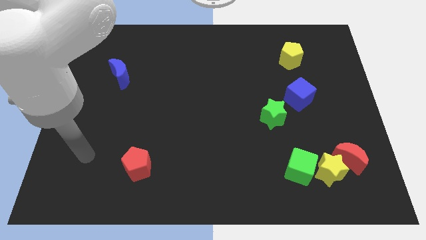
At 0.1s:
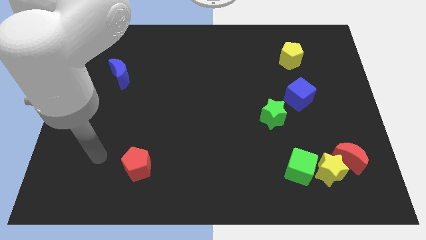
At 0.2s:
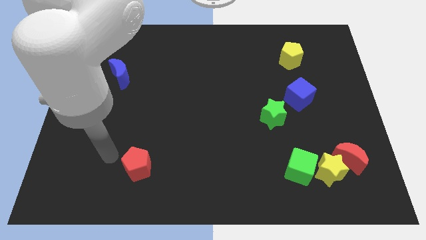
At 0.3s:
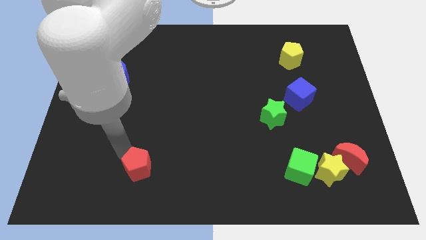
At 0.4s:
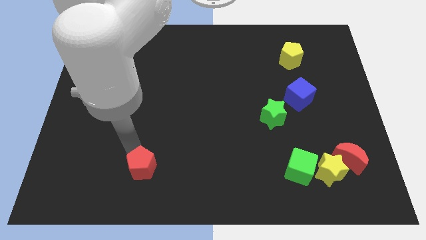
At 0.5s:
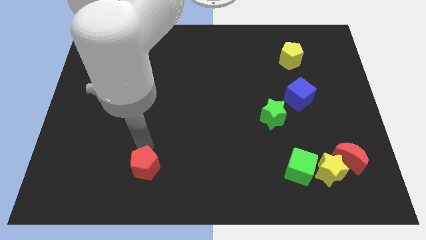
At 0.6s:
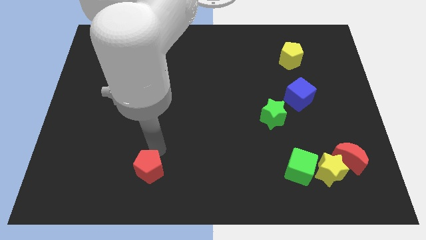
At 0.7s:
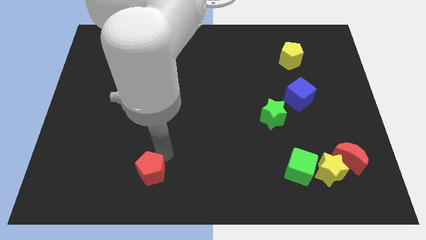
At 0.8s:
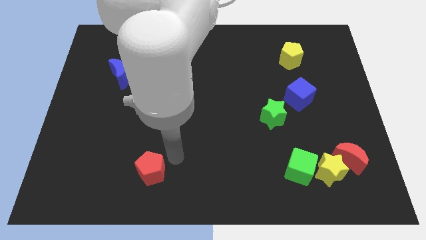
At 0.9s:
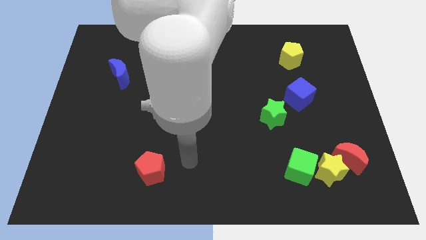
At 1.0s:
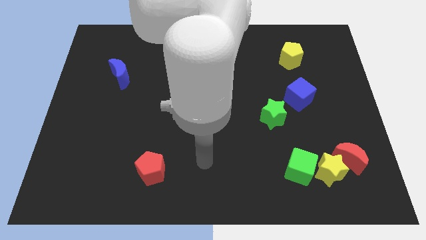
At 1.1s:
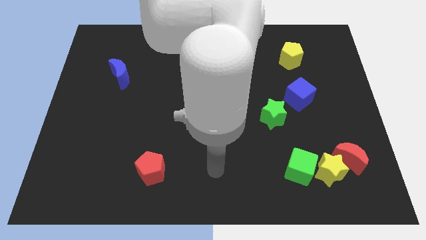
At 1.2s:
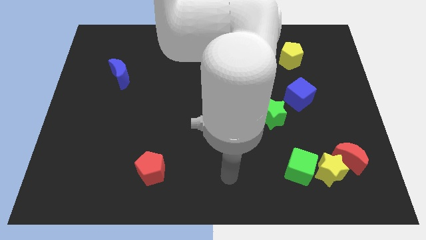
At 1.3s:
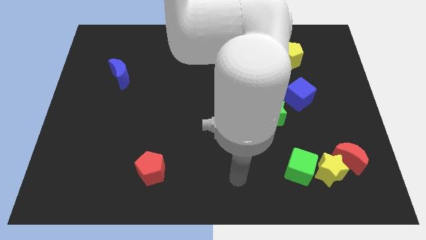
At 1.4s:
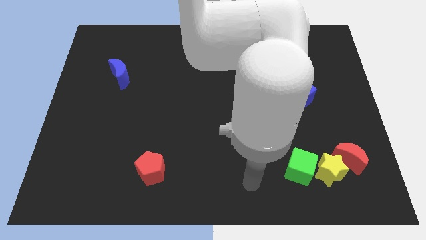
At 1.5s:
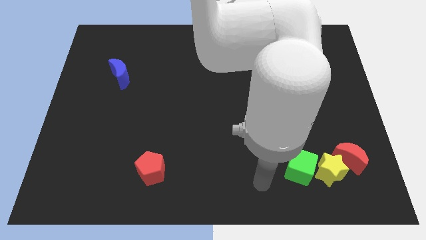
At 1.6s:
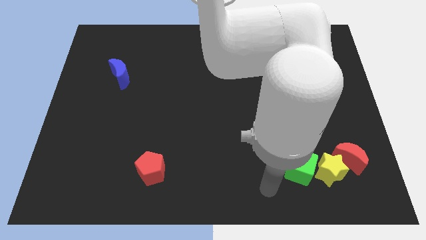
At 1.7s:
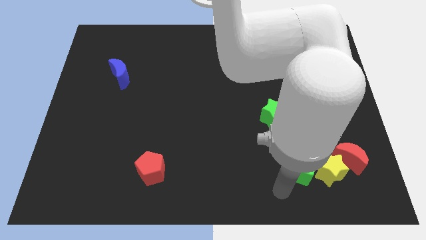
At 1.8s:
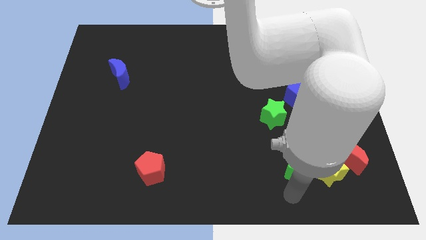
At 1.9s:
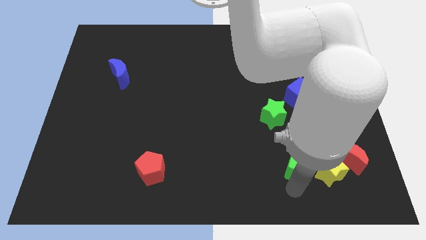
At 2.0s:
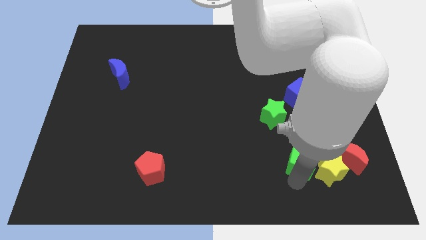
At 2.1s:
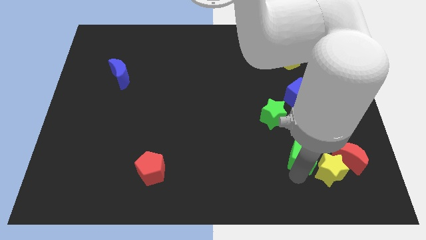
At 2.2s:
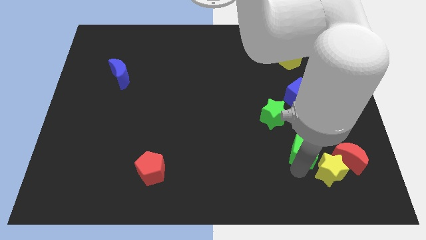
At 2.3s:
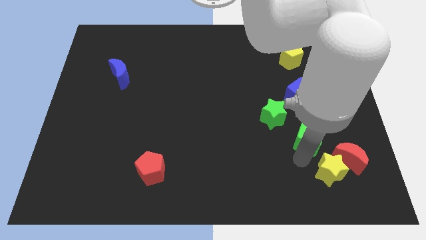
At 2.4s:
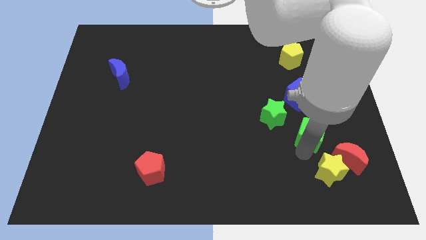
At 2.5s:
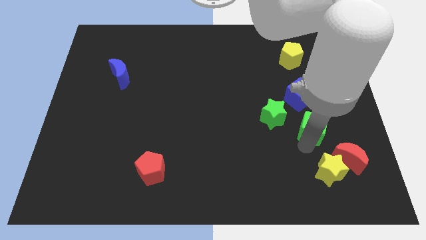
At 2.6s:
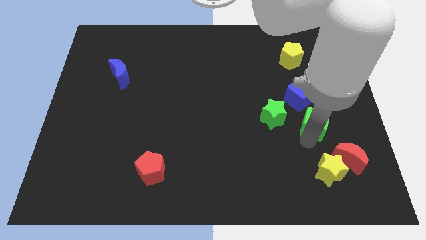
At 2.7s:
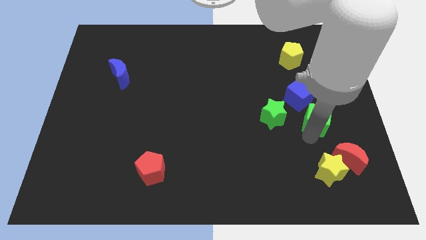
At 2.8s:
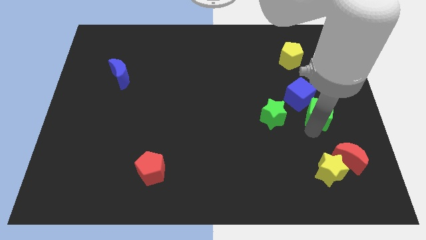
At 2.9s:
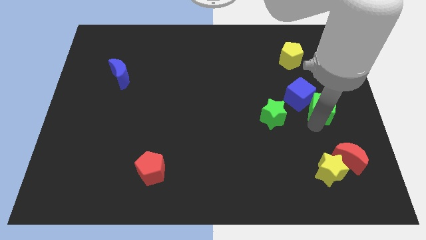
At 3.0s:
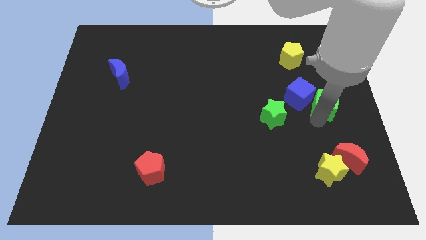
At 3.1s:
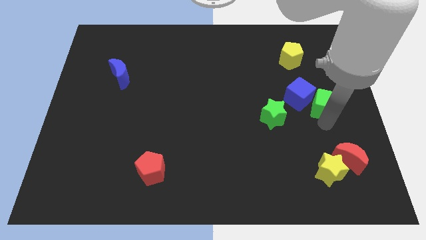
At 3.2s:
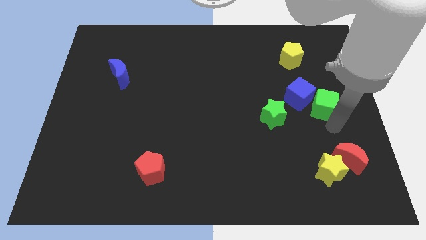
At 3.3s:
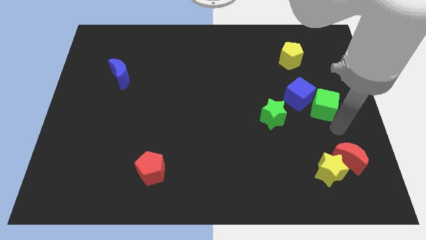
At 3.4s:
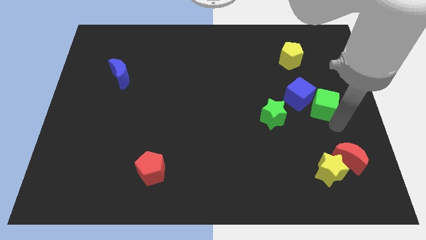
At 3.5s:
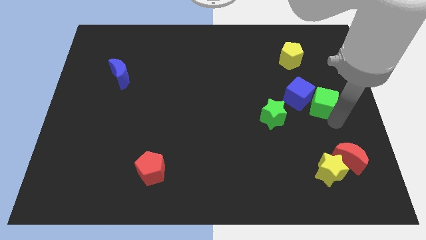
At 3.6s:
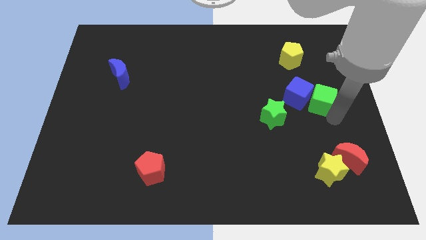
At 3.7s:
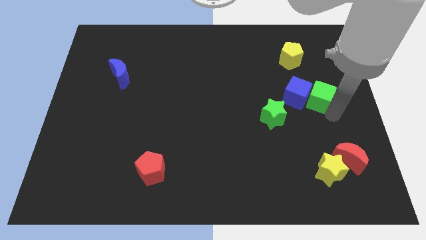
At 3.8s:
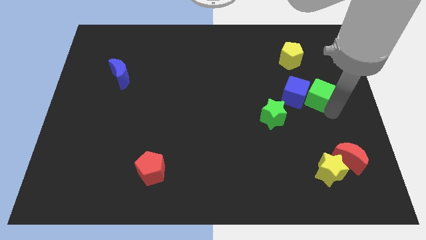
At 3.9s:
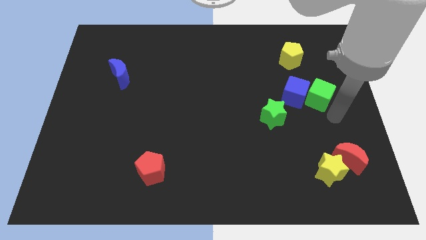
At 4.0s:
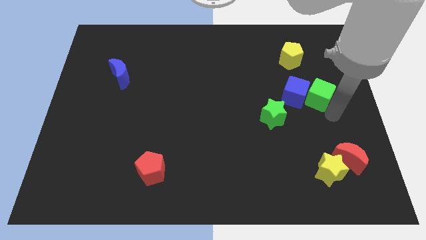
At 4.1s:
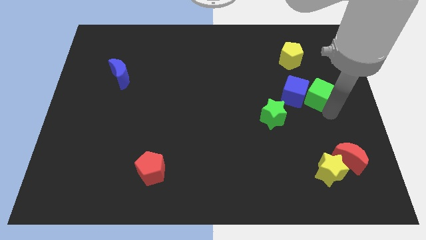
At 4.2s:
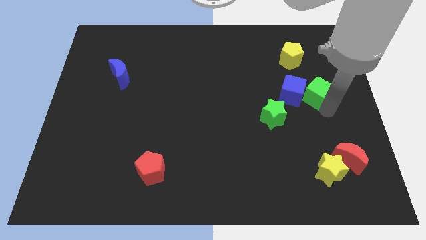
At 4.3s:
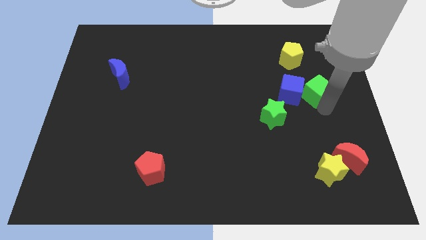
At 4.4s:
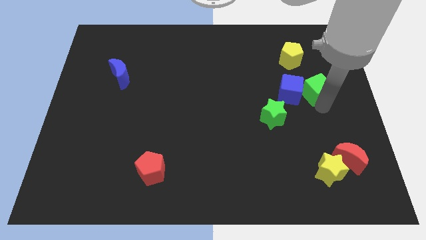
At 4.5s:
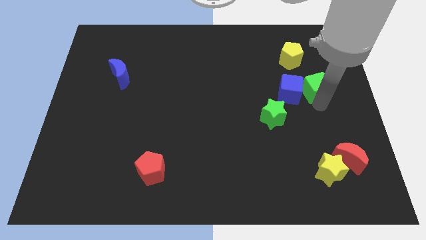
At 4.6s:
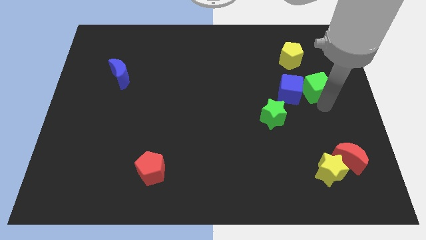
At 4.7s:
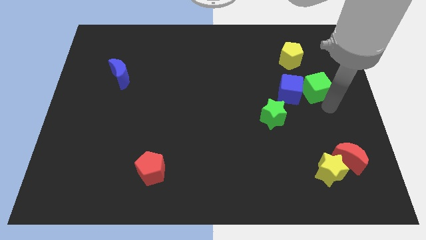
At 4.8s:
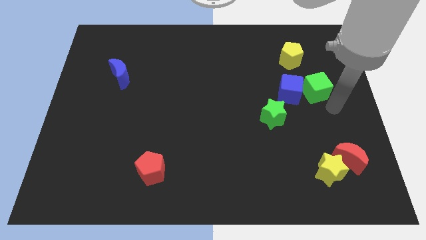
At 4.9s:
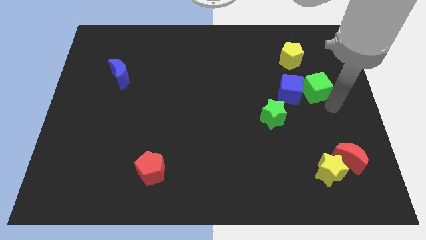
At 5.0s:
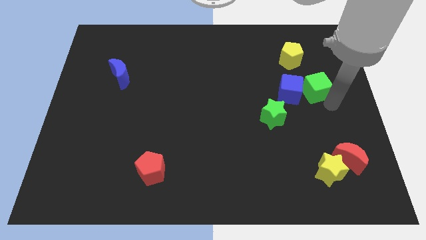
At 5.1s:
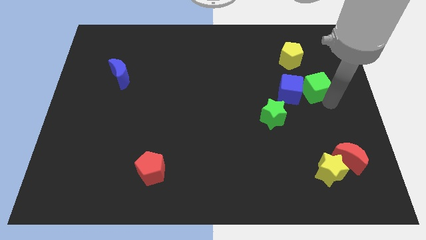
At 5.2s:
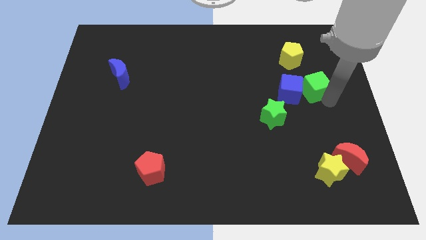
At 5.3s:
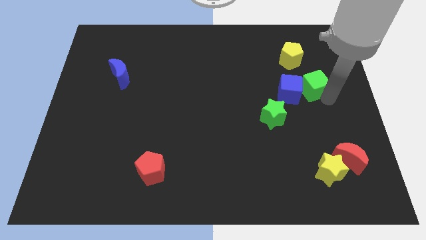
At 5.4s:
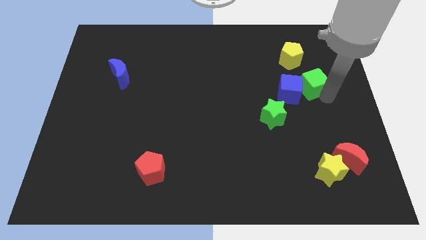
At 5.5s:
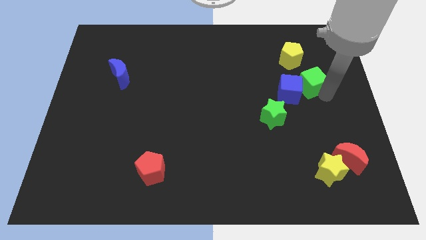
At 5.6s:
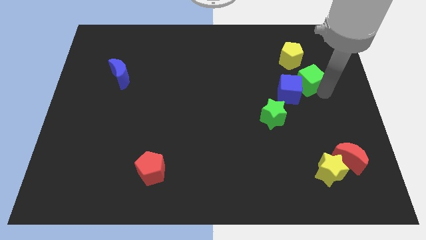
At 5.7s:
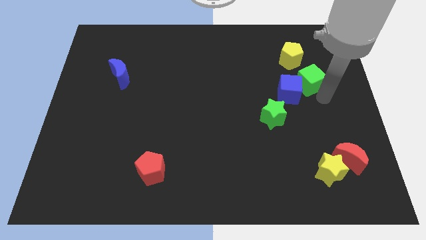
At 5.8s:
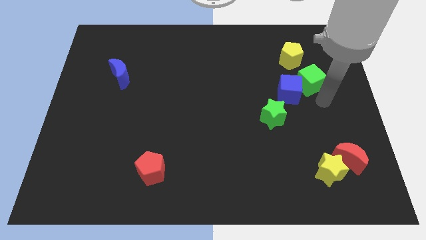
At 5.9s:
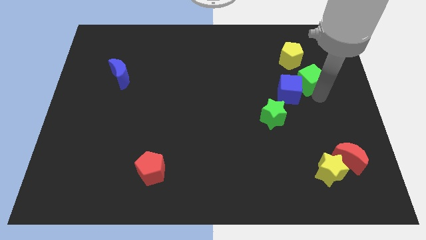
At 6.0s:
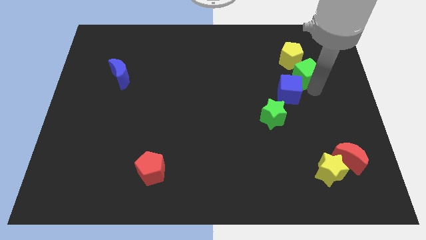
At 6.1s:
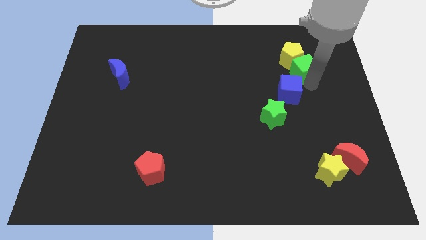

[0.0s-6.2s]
push the green cube to the yellow pentagon
